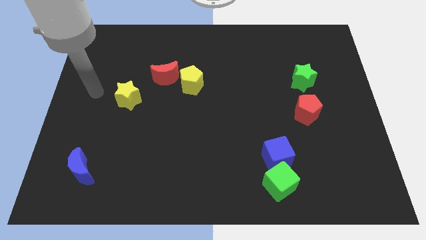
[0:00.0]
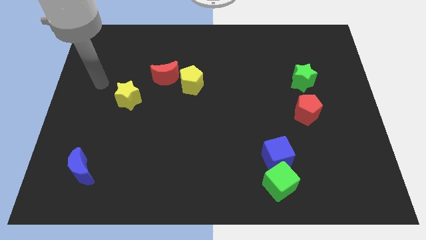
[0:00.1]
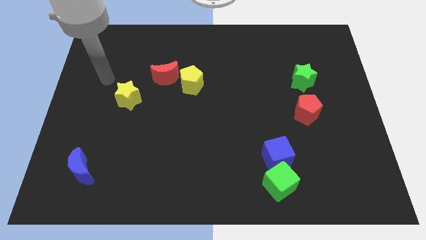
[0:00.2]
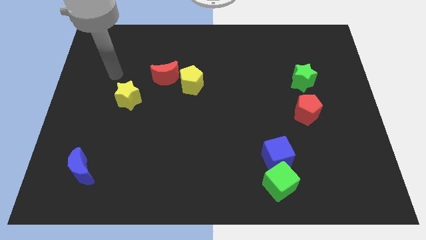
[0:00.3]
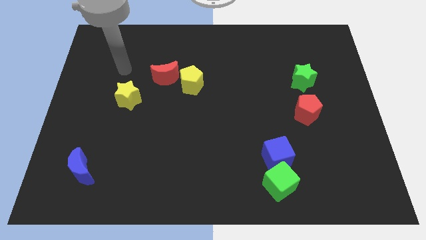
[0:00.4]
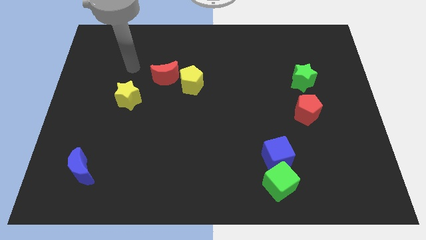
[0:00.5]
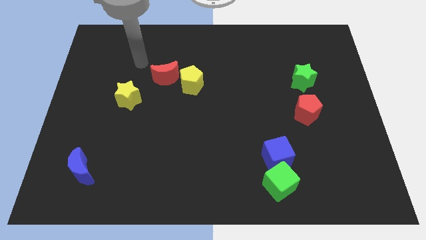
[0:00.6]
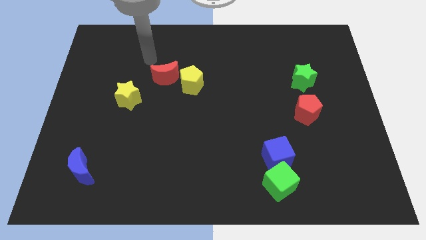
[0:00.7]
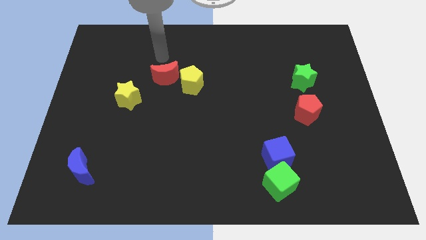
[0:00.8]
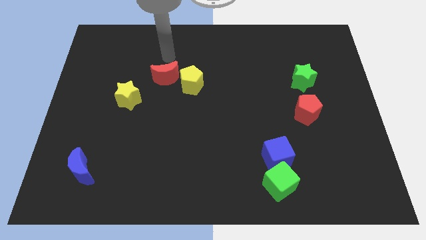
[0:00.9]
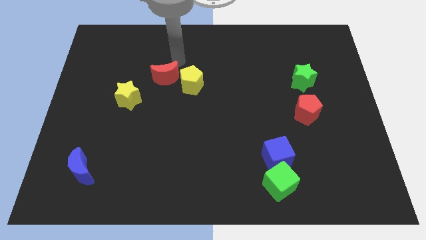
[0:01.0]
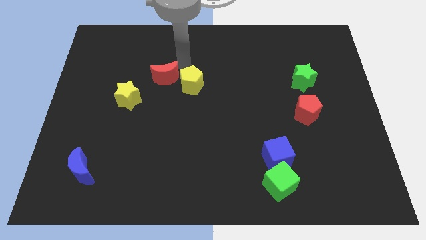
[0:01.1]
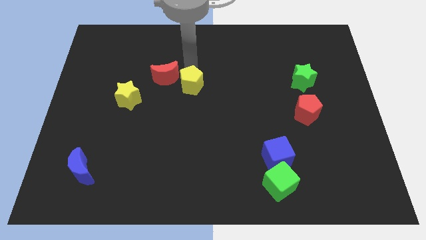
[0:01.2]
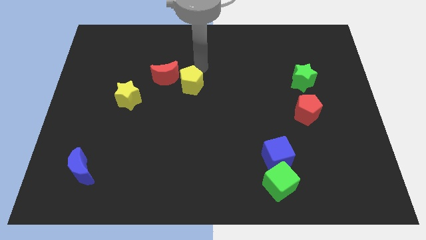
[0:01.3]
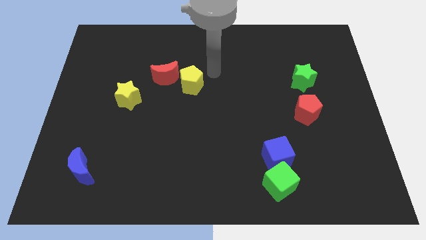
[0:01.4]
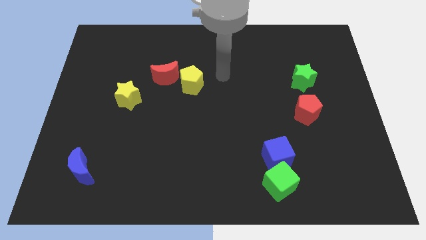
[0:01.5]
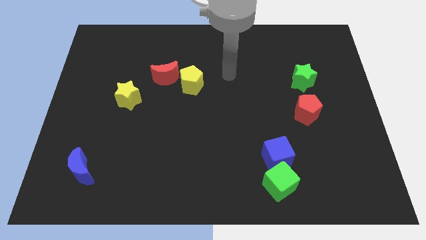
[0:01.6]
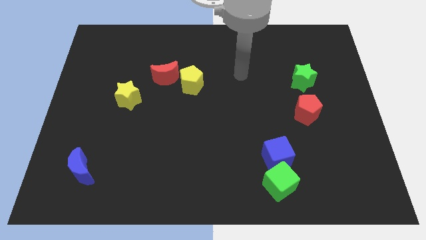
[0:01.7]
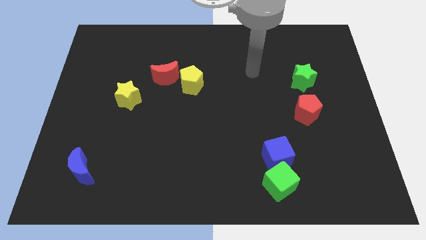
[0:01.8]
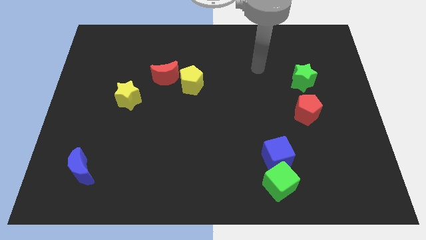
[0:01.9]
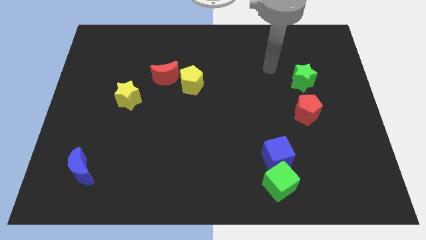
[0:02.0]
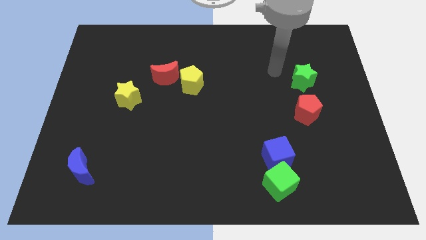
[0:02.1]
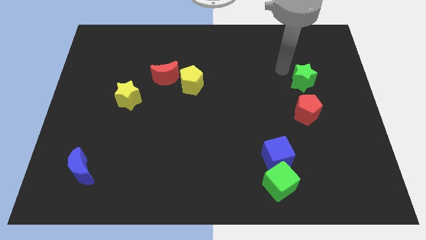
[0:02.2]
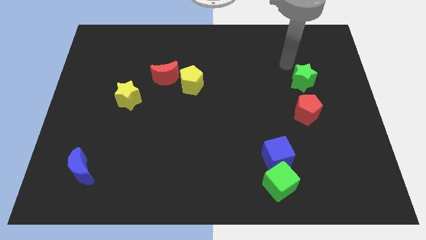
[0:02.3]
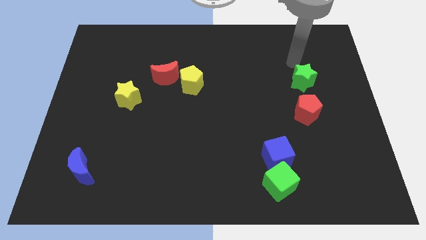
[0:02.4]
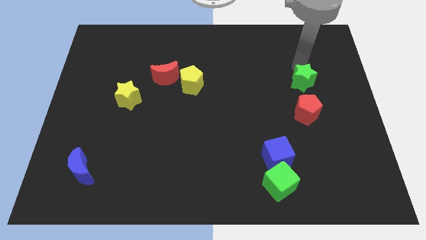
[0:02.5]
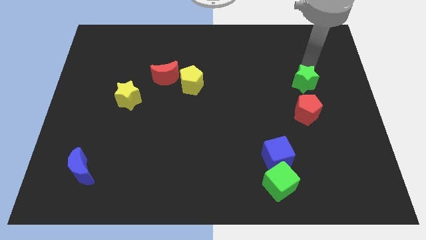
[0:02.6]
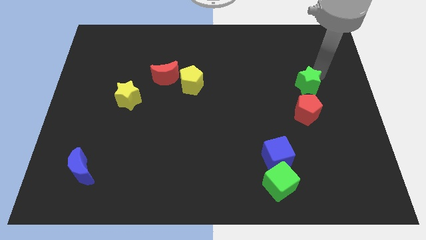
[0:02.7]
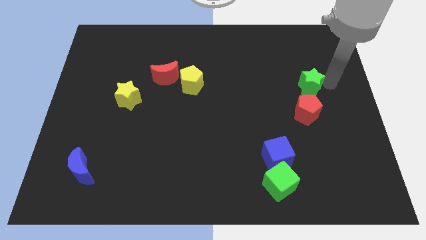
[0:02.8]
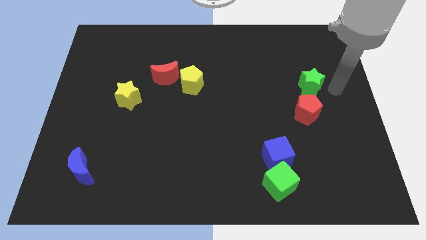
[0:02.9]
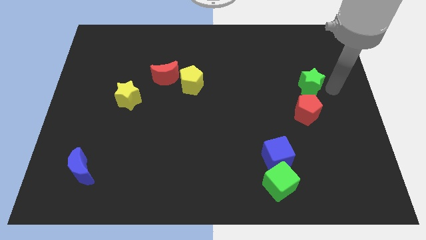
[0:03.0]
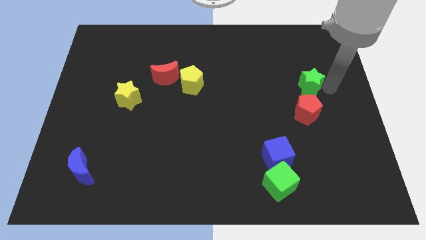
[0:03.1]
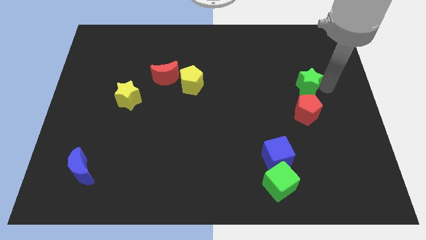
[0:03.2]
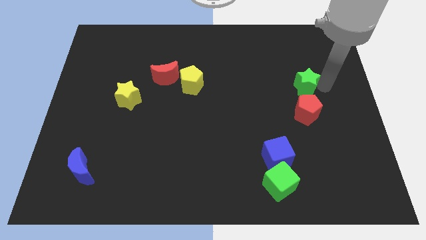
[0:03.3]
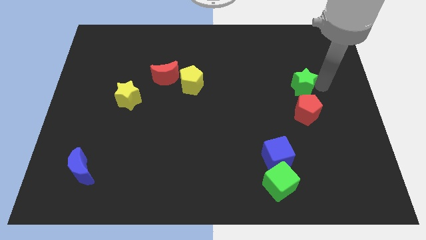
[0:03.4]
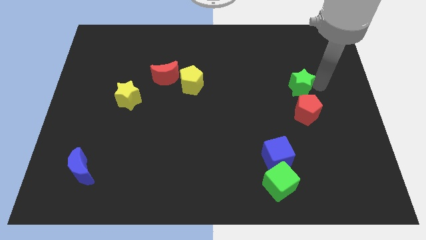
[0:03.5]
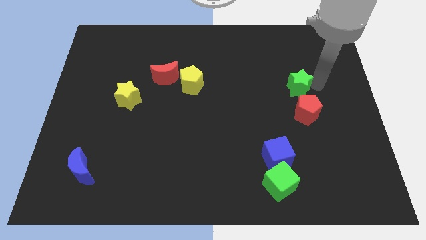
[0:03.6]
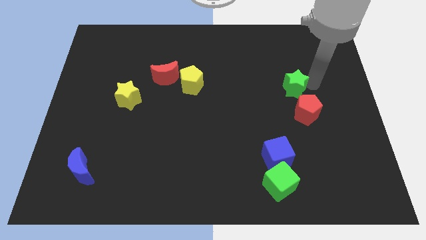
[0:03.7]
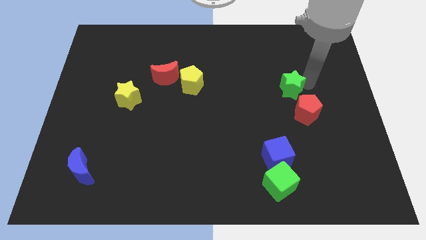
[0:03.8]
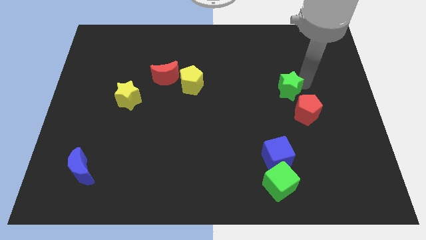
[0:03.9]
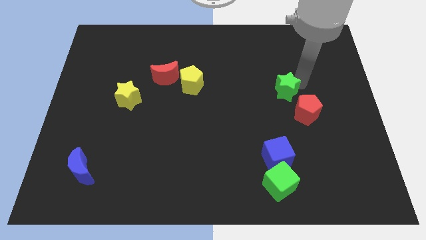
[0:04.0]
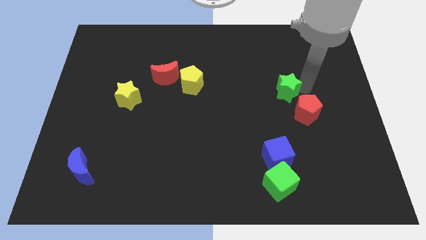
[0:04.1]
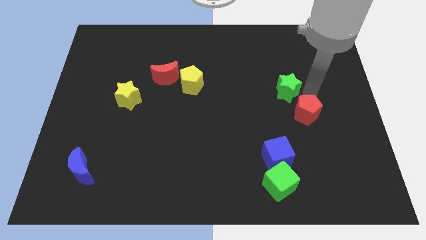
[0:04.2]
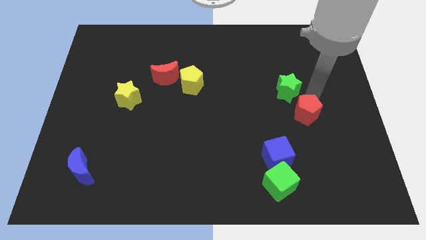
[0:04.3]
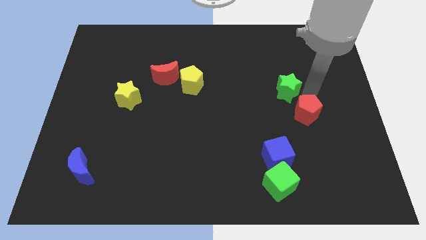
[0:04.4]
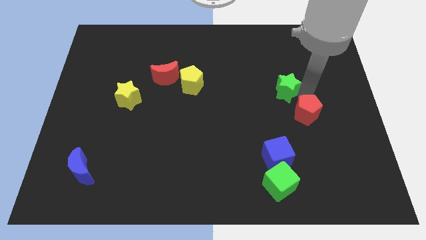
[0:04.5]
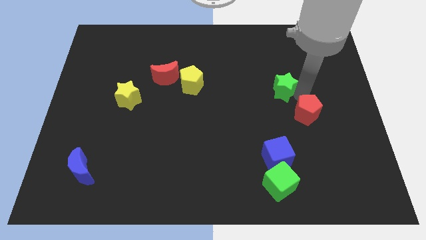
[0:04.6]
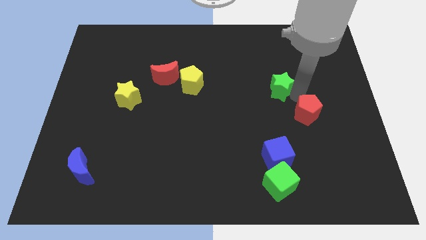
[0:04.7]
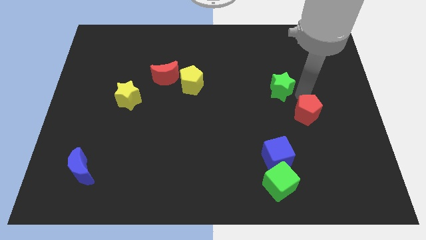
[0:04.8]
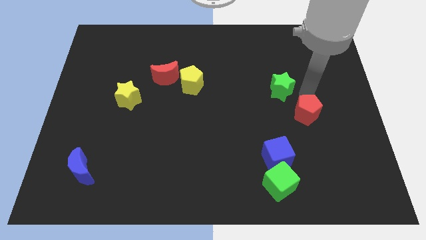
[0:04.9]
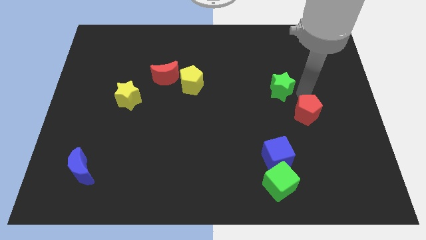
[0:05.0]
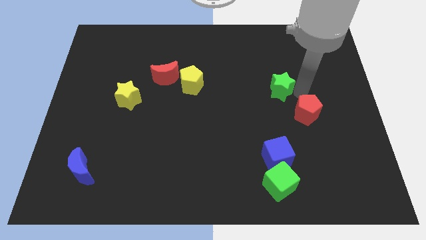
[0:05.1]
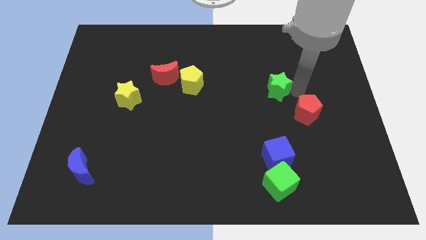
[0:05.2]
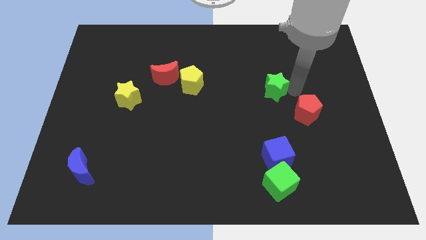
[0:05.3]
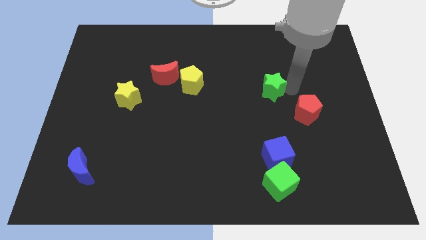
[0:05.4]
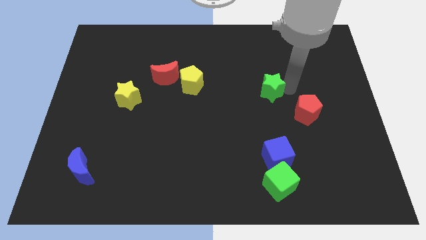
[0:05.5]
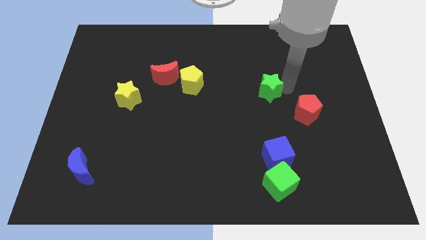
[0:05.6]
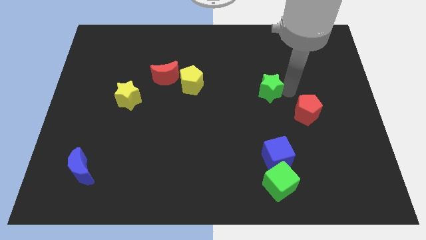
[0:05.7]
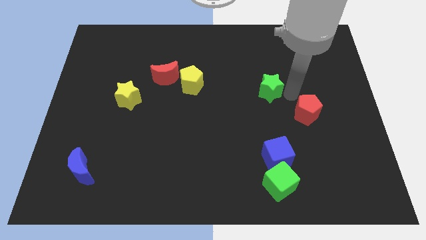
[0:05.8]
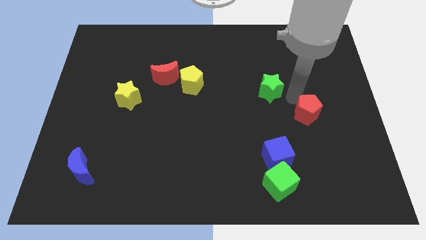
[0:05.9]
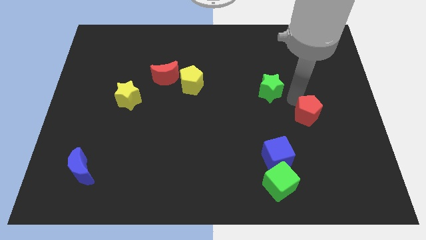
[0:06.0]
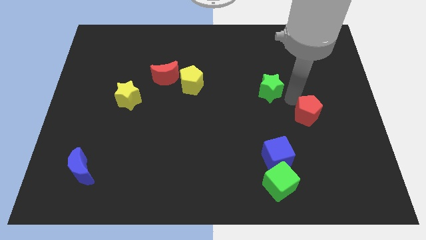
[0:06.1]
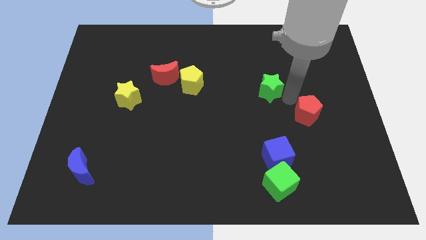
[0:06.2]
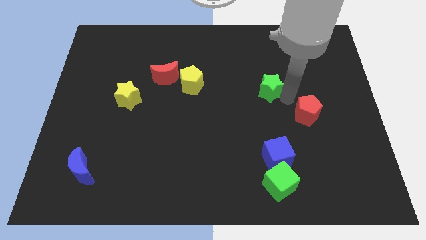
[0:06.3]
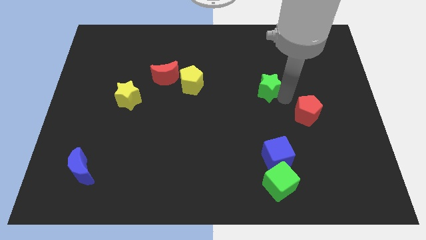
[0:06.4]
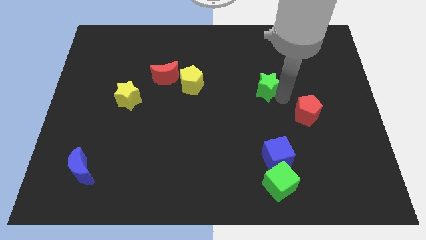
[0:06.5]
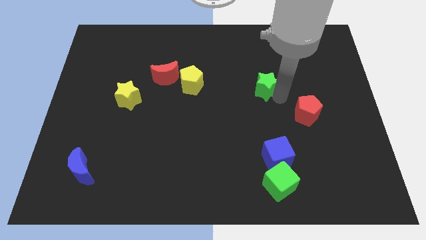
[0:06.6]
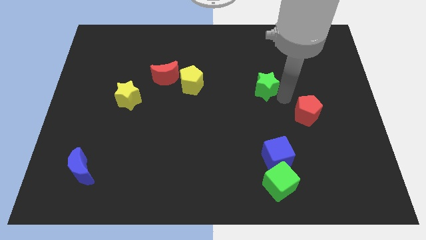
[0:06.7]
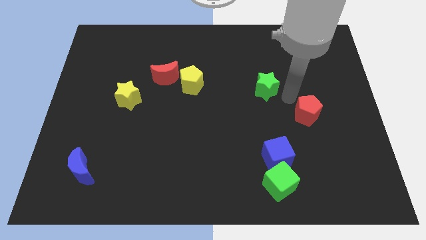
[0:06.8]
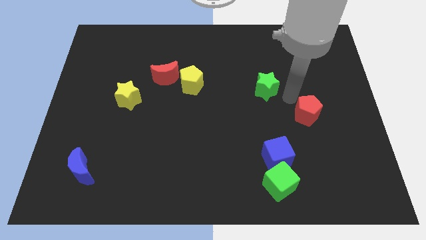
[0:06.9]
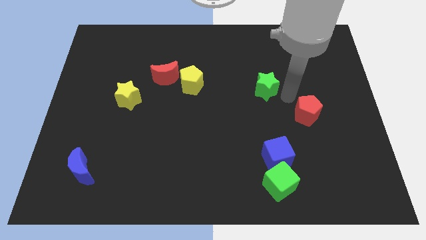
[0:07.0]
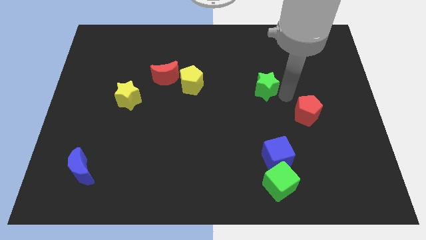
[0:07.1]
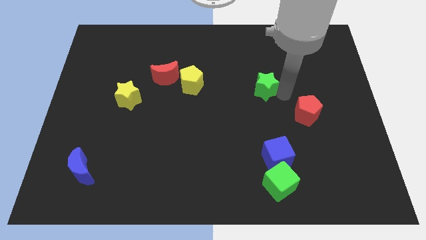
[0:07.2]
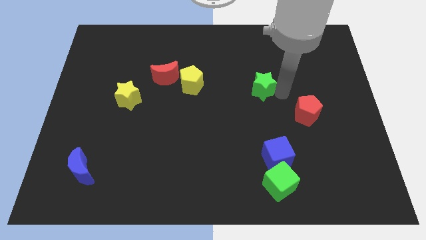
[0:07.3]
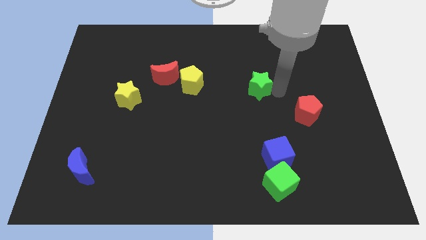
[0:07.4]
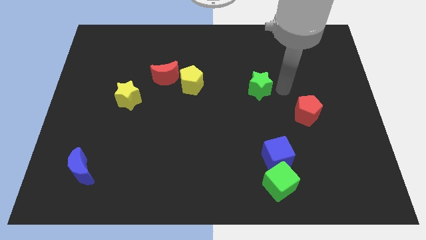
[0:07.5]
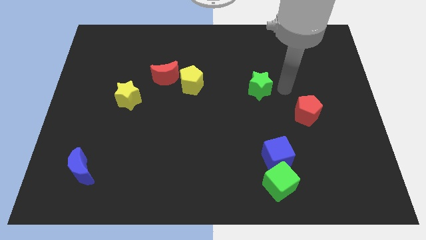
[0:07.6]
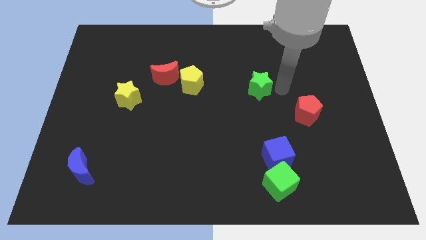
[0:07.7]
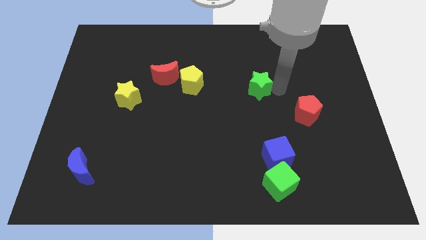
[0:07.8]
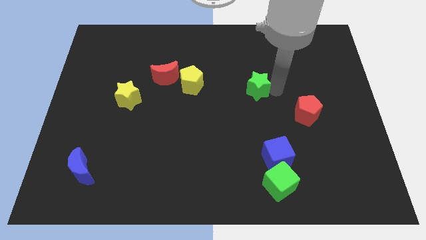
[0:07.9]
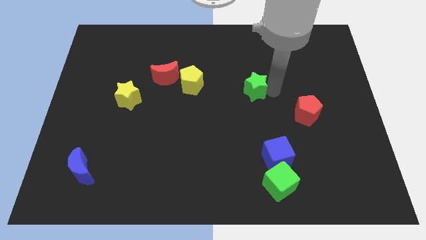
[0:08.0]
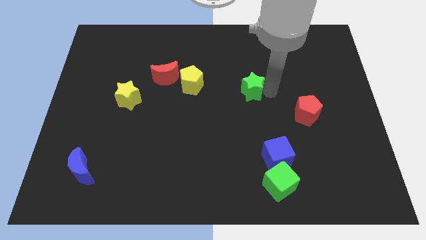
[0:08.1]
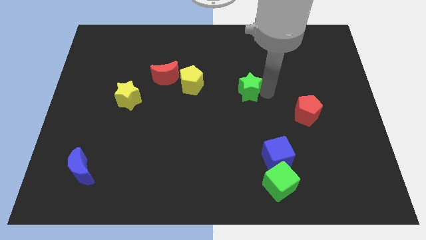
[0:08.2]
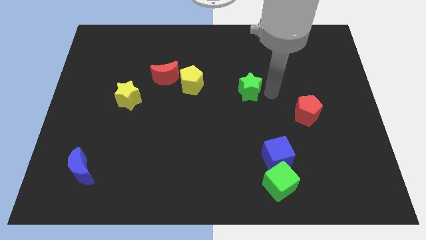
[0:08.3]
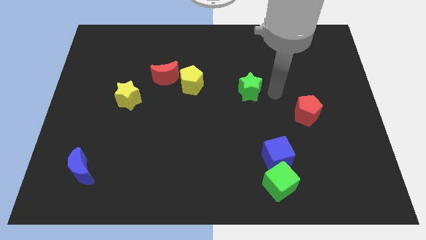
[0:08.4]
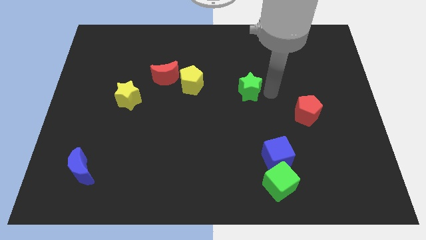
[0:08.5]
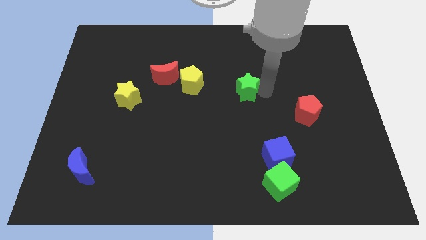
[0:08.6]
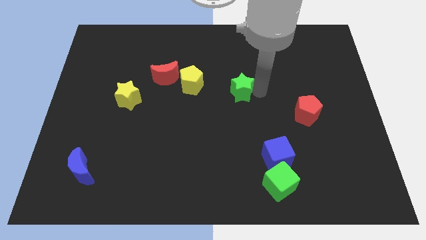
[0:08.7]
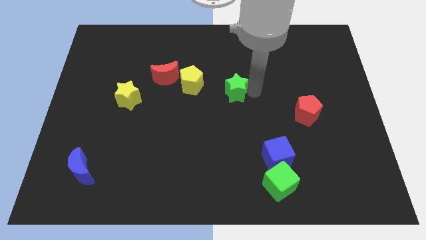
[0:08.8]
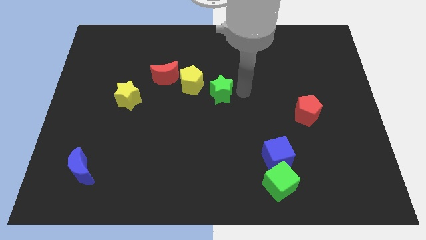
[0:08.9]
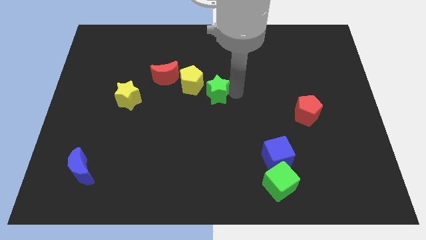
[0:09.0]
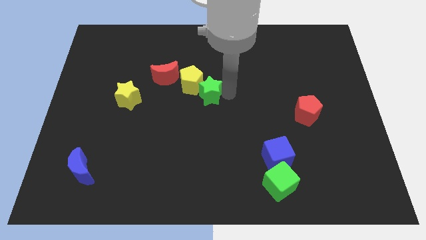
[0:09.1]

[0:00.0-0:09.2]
move the green star towards the yellow pentagon
